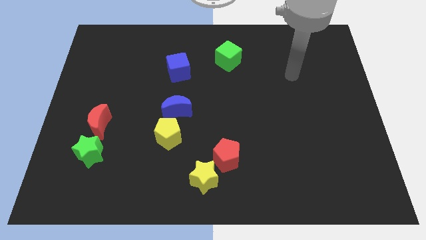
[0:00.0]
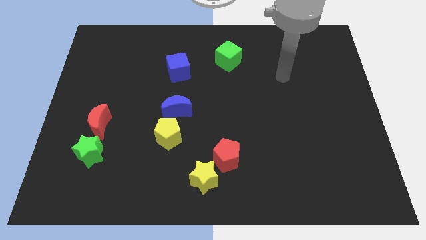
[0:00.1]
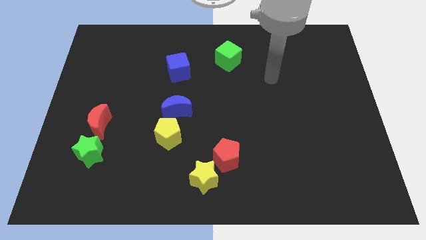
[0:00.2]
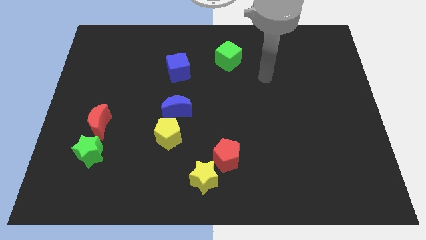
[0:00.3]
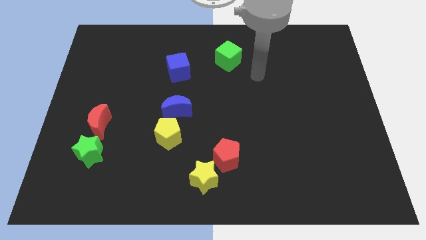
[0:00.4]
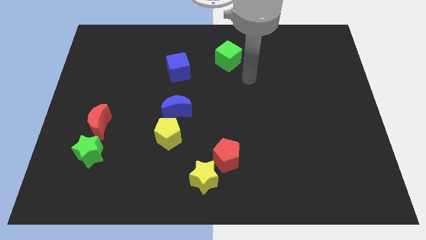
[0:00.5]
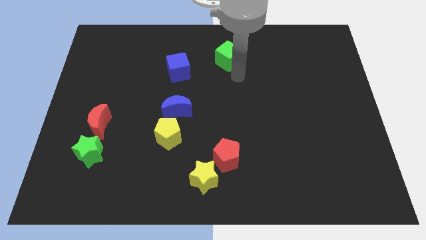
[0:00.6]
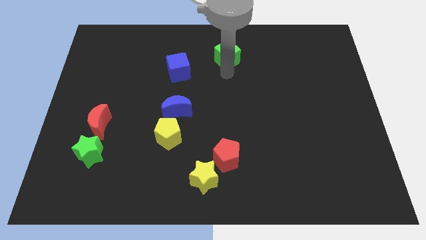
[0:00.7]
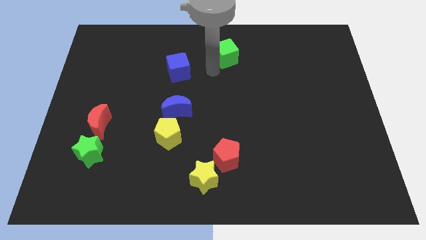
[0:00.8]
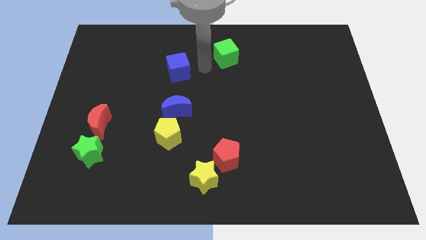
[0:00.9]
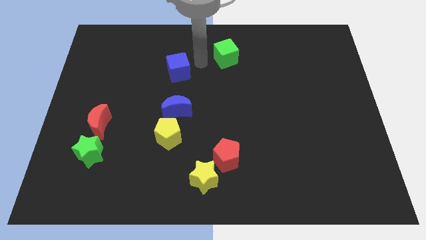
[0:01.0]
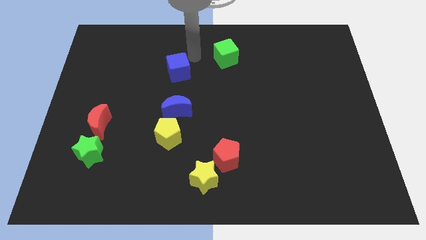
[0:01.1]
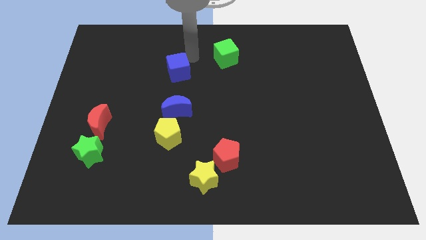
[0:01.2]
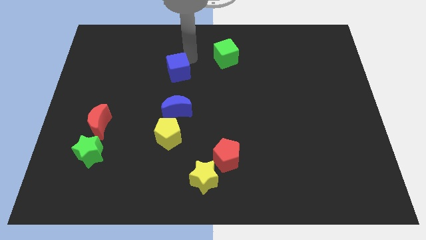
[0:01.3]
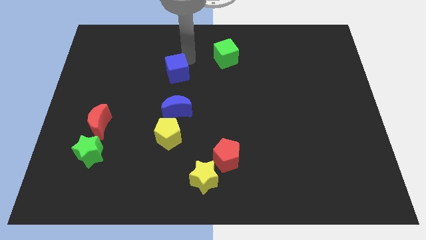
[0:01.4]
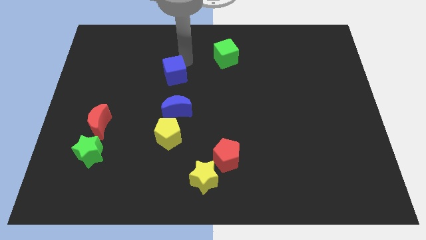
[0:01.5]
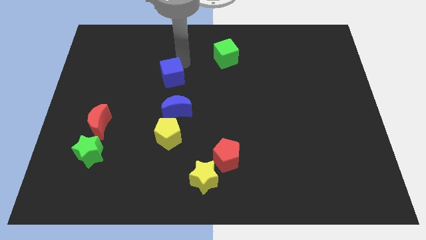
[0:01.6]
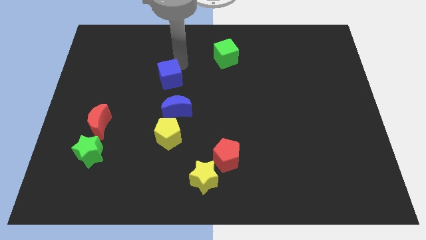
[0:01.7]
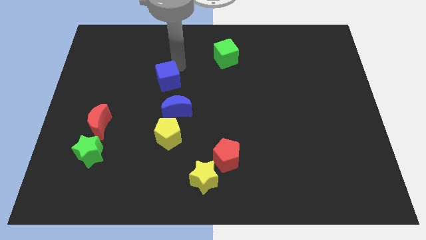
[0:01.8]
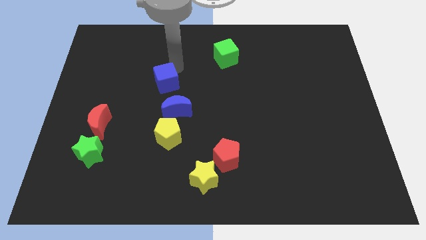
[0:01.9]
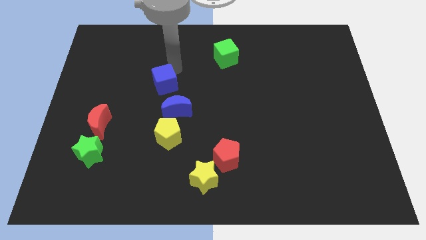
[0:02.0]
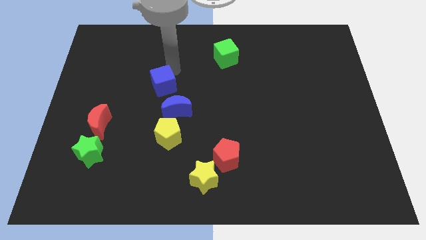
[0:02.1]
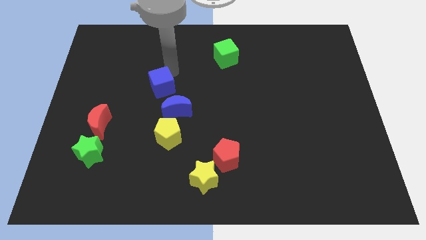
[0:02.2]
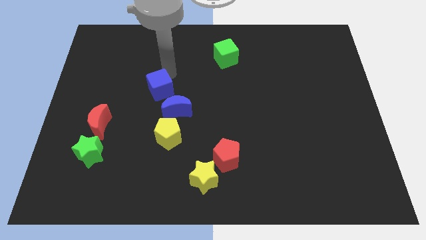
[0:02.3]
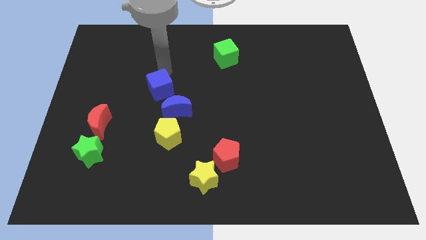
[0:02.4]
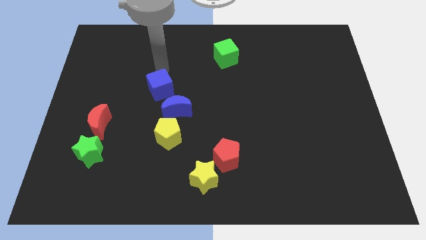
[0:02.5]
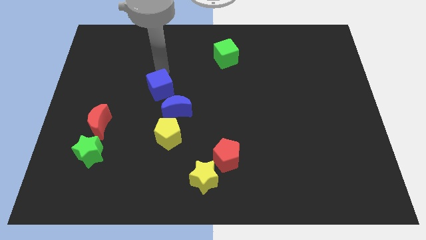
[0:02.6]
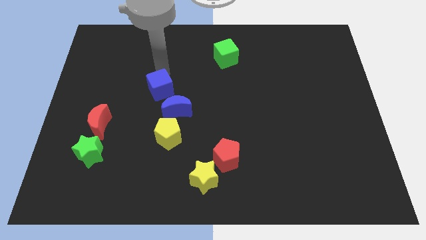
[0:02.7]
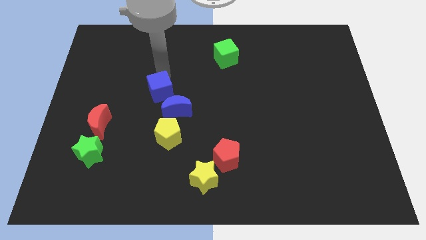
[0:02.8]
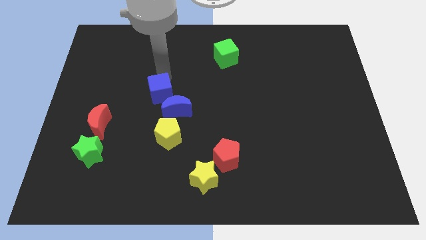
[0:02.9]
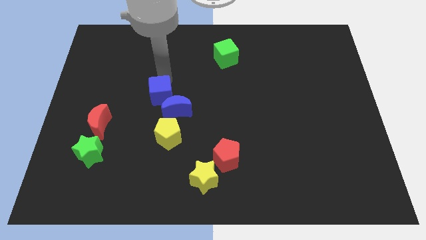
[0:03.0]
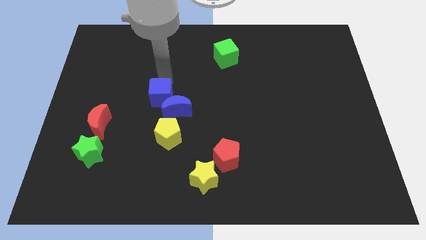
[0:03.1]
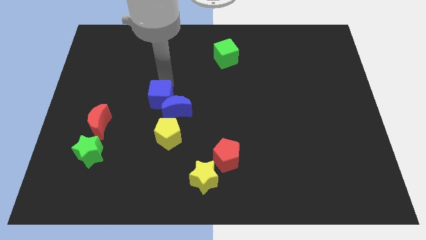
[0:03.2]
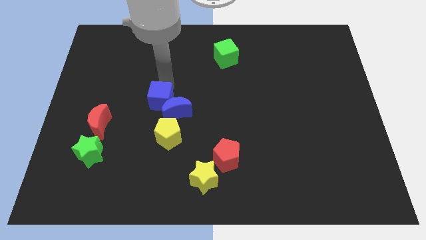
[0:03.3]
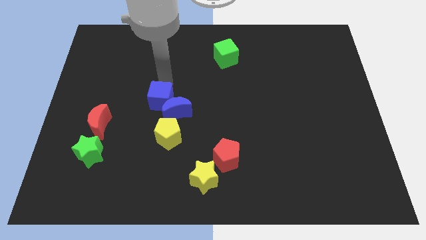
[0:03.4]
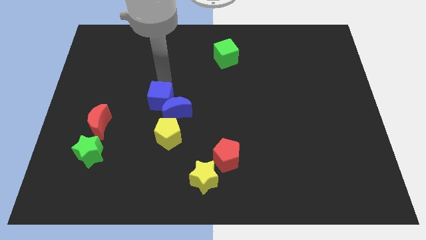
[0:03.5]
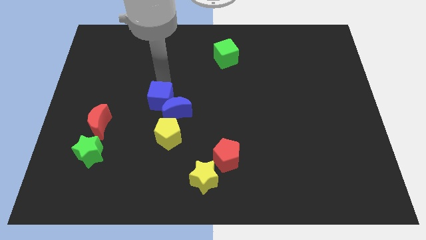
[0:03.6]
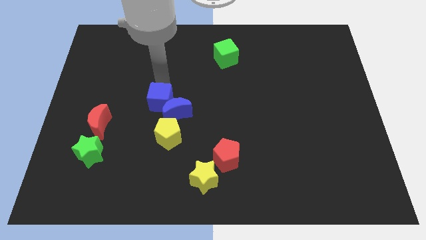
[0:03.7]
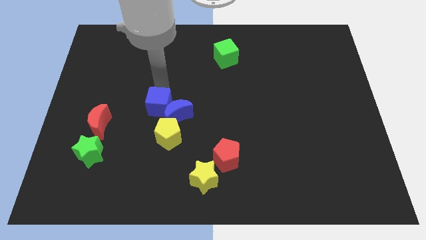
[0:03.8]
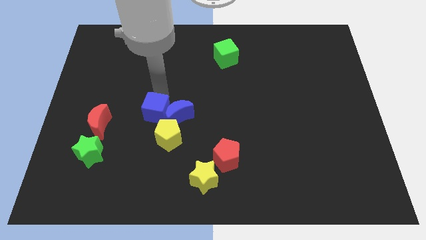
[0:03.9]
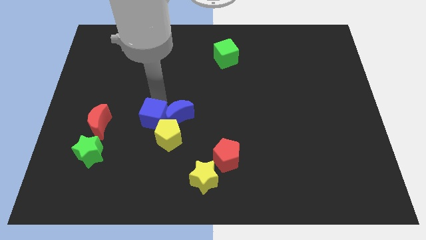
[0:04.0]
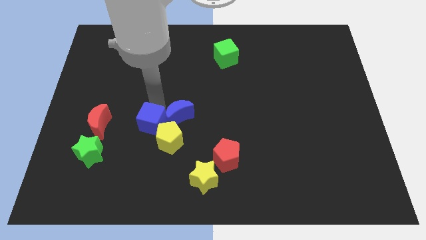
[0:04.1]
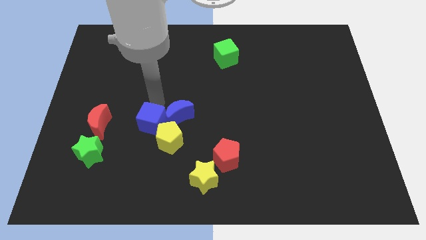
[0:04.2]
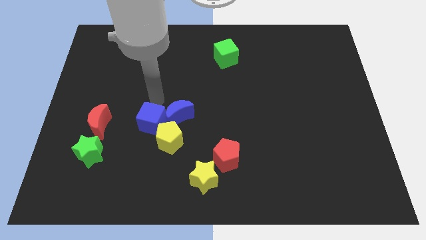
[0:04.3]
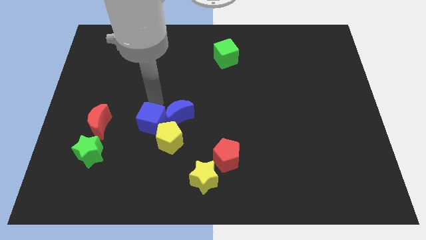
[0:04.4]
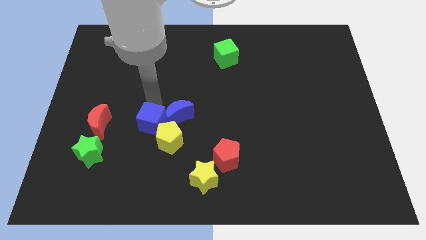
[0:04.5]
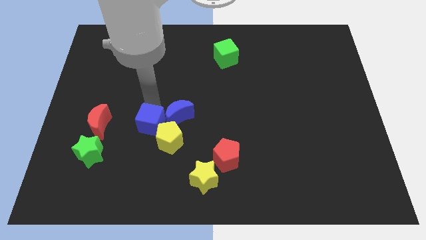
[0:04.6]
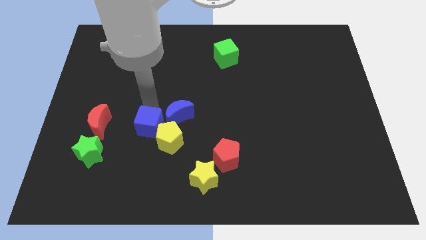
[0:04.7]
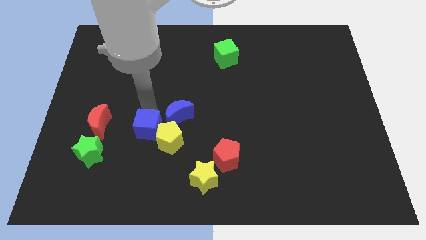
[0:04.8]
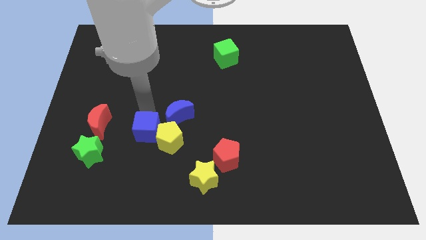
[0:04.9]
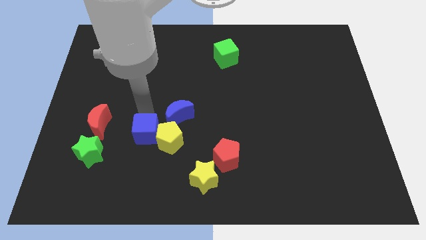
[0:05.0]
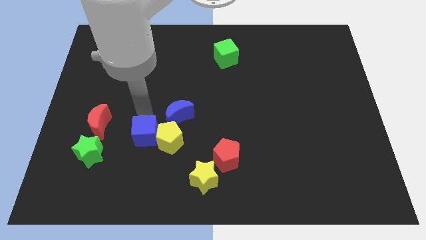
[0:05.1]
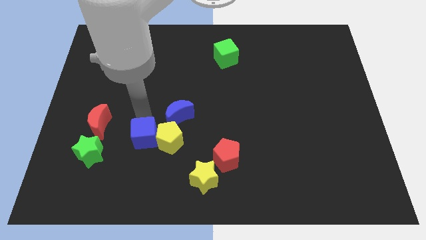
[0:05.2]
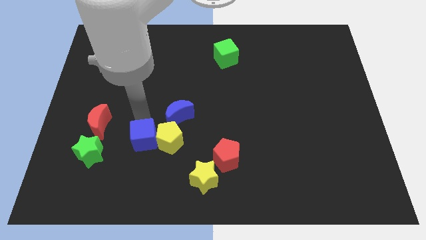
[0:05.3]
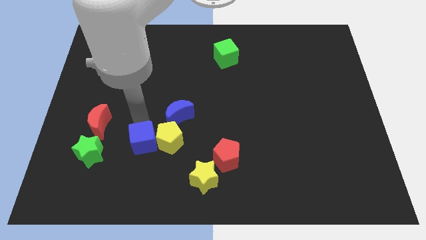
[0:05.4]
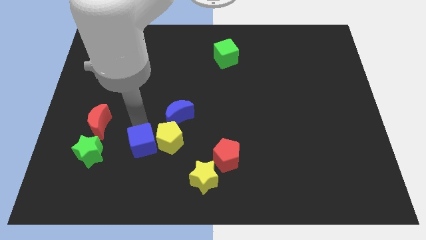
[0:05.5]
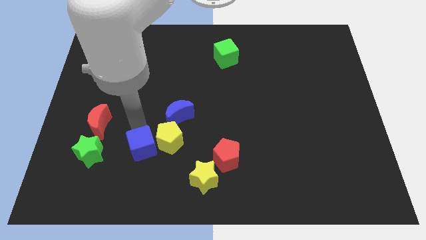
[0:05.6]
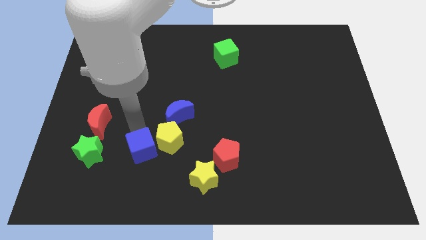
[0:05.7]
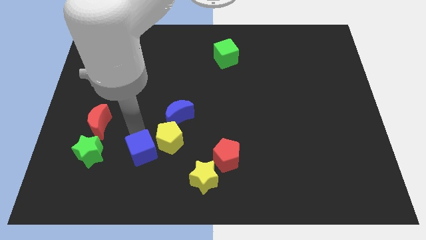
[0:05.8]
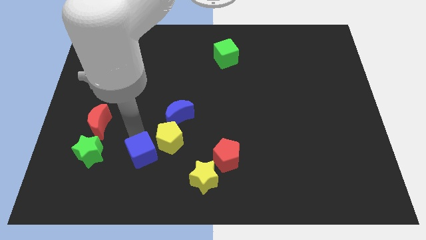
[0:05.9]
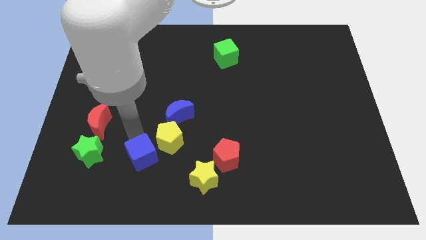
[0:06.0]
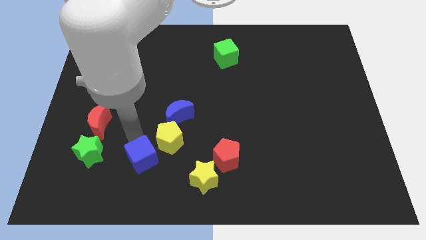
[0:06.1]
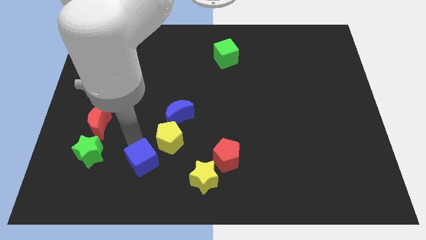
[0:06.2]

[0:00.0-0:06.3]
move the blue cube to the left side of the yellow star

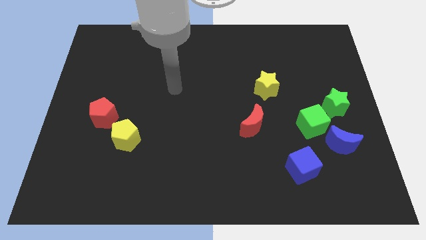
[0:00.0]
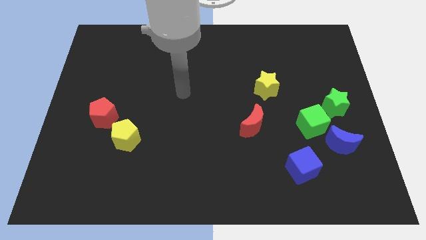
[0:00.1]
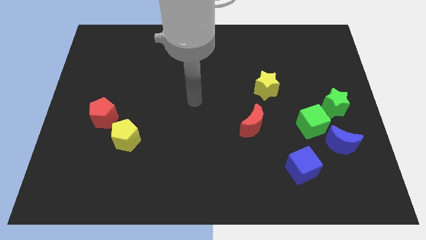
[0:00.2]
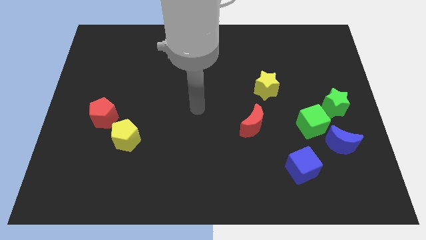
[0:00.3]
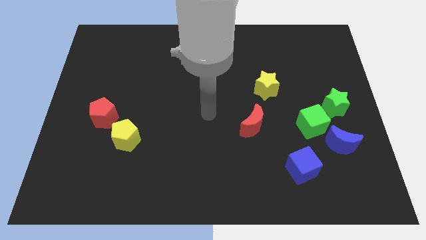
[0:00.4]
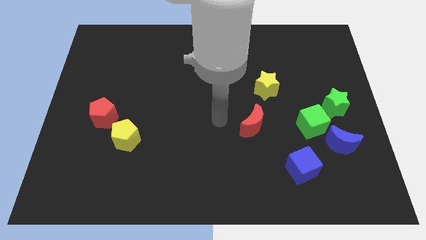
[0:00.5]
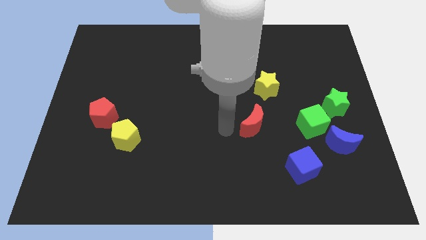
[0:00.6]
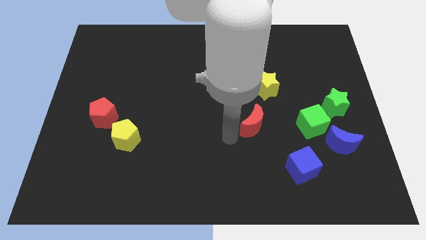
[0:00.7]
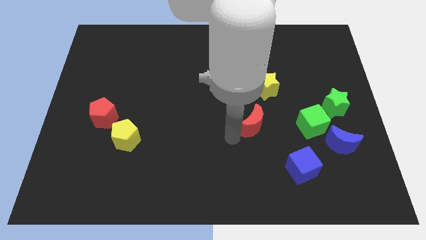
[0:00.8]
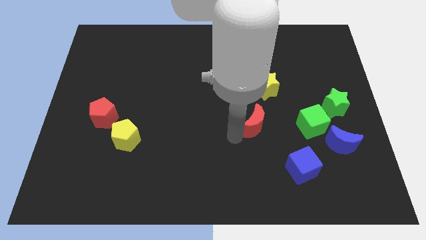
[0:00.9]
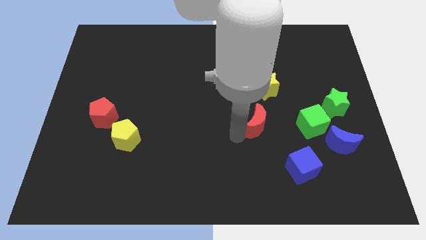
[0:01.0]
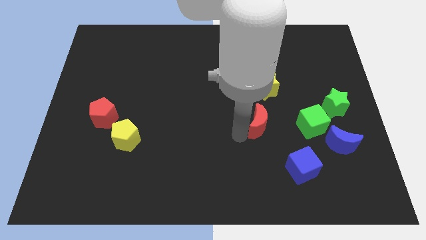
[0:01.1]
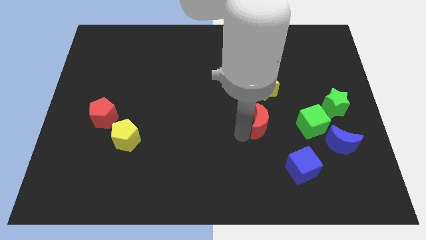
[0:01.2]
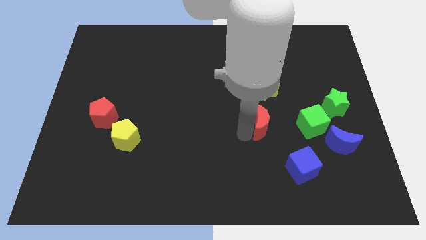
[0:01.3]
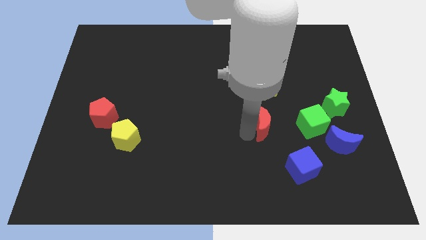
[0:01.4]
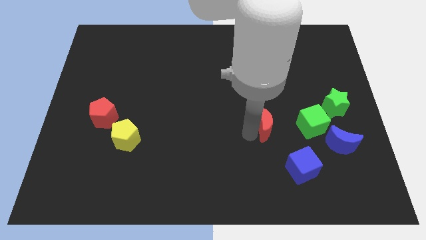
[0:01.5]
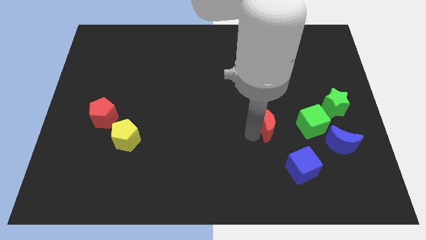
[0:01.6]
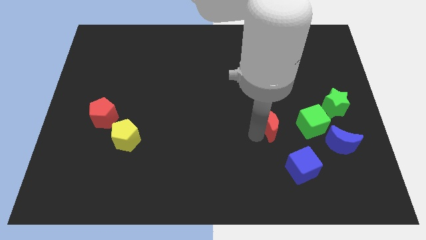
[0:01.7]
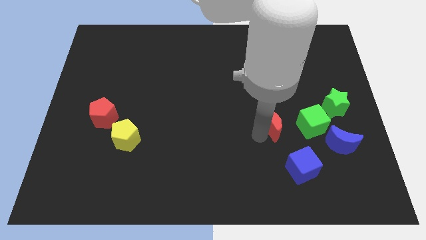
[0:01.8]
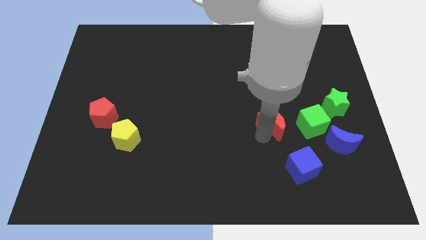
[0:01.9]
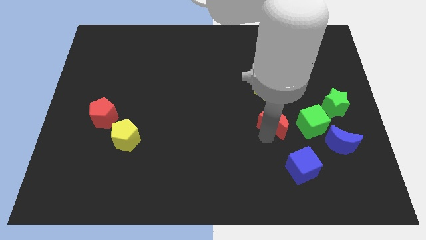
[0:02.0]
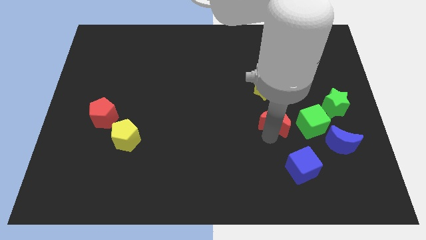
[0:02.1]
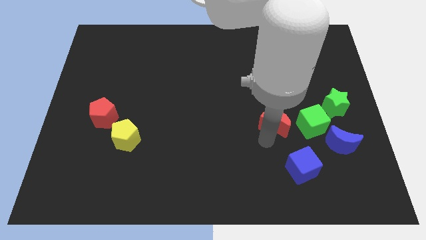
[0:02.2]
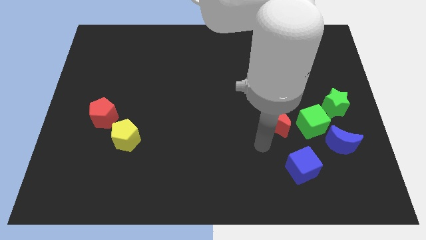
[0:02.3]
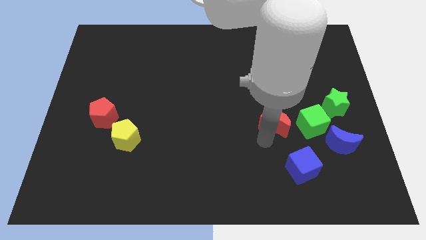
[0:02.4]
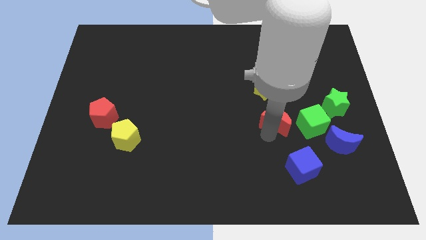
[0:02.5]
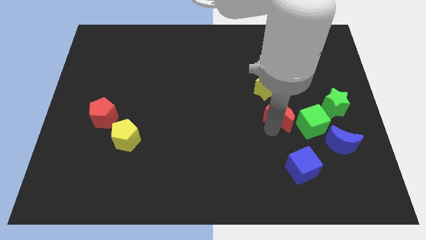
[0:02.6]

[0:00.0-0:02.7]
push the red moon to the top left side of the green cube
